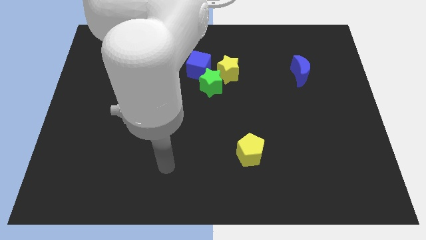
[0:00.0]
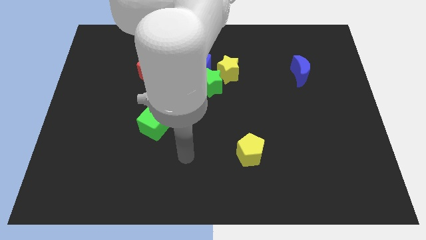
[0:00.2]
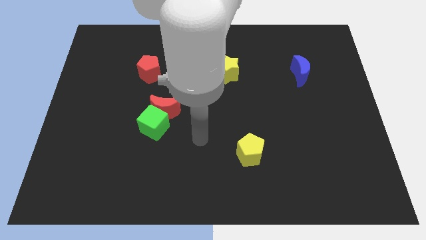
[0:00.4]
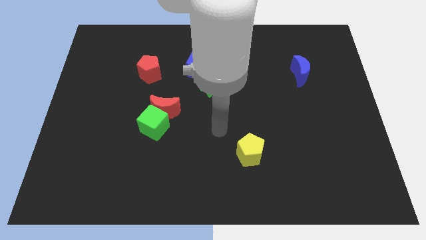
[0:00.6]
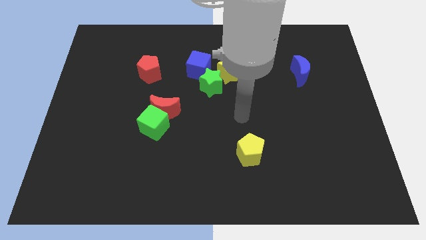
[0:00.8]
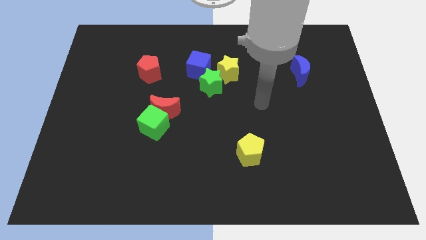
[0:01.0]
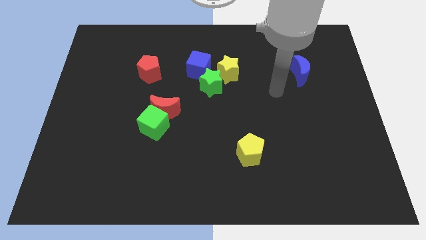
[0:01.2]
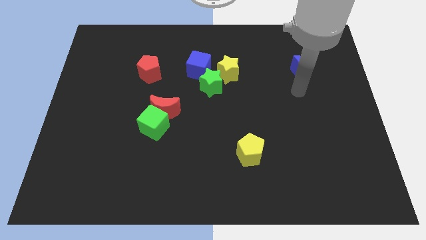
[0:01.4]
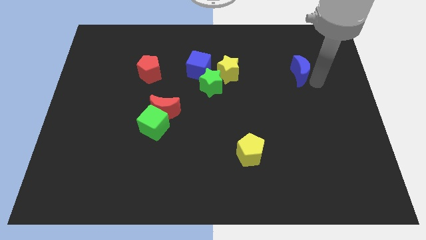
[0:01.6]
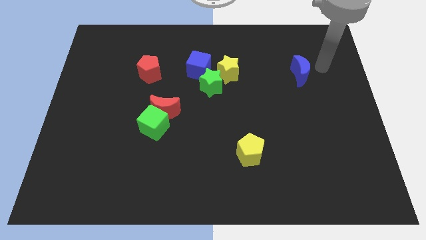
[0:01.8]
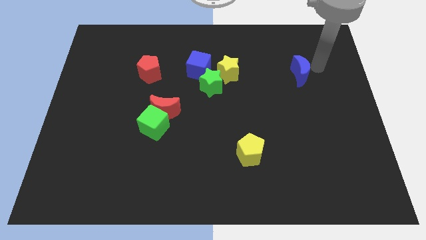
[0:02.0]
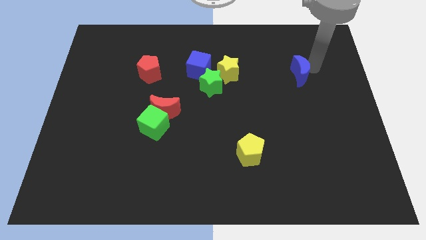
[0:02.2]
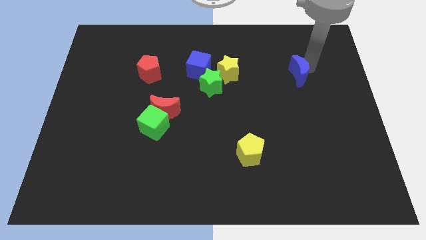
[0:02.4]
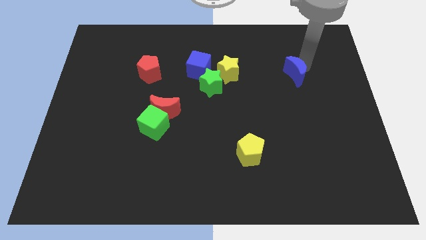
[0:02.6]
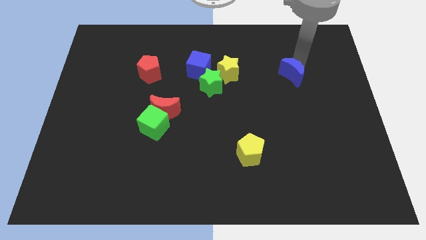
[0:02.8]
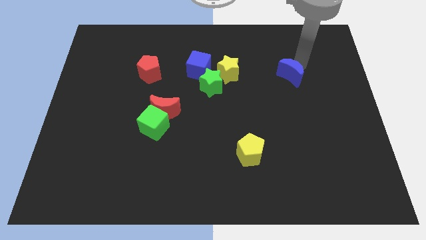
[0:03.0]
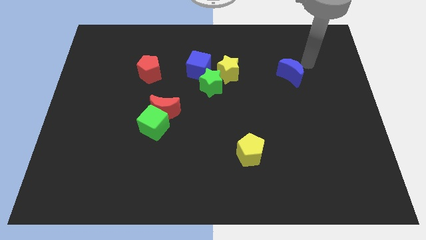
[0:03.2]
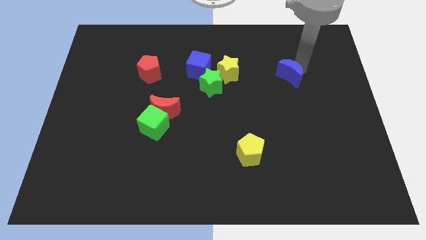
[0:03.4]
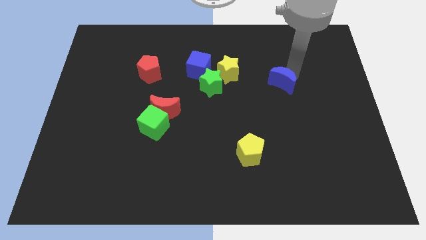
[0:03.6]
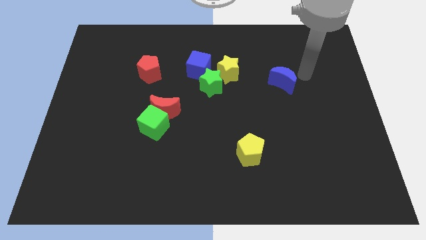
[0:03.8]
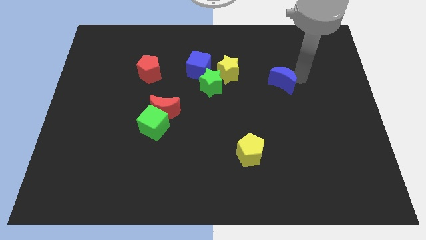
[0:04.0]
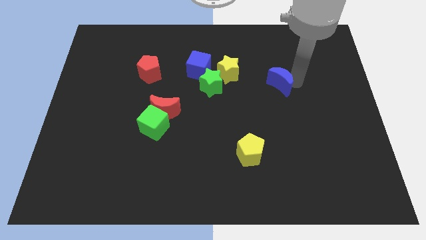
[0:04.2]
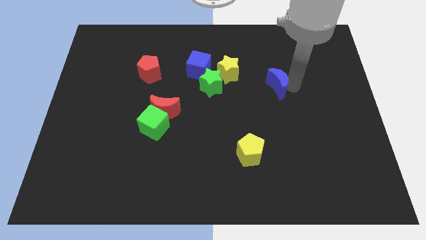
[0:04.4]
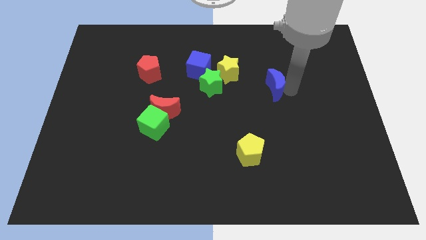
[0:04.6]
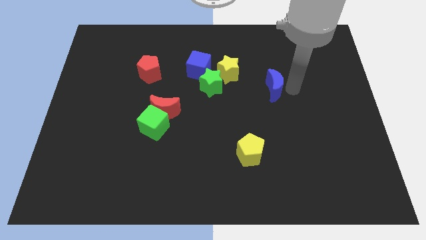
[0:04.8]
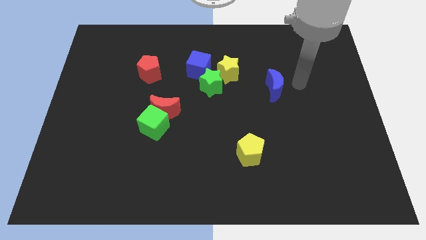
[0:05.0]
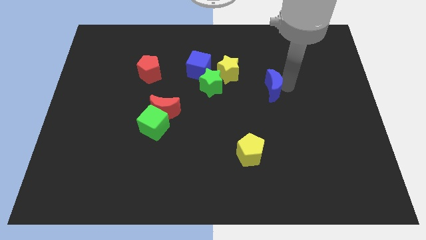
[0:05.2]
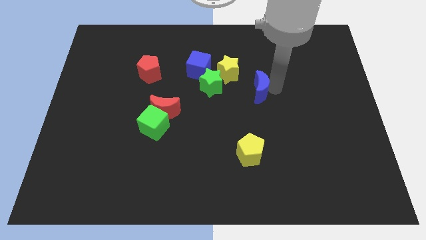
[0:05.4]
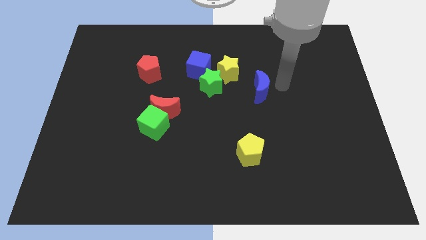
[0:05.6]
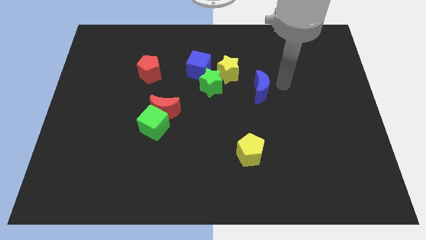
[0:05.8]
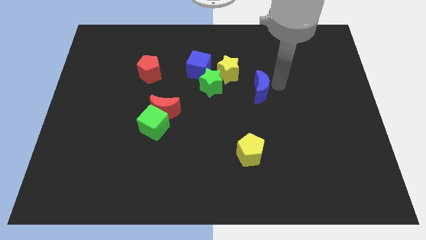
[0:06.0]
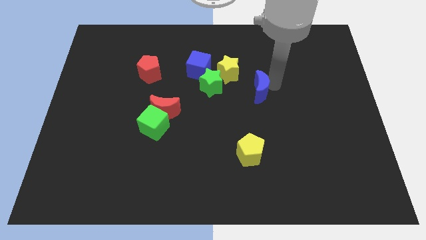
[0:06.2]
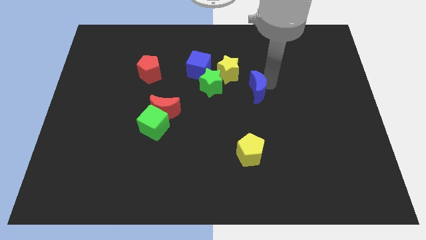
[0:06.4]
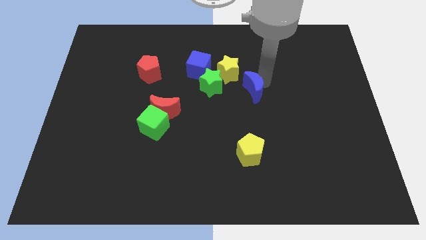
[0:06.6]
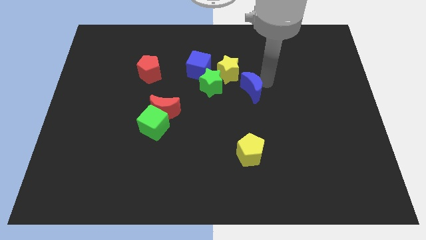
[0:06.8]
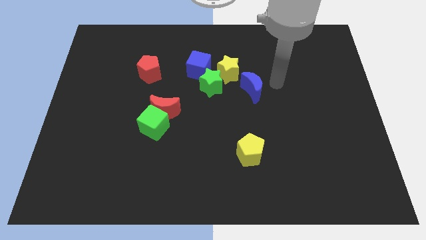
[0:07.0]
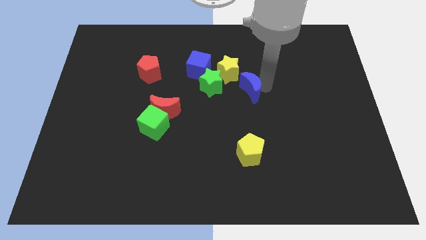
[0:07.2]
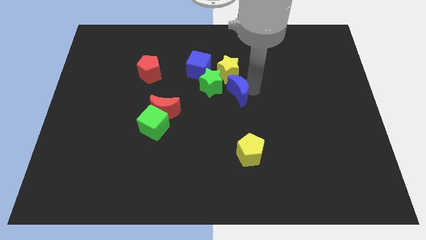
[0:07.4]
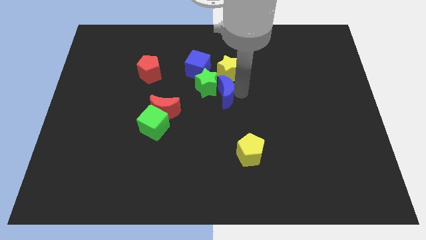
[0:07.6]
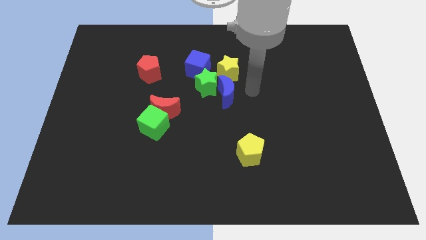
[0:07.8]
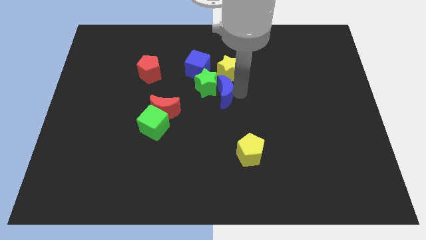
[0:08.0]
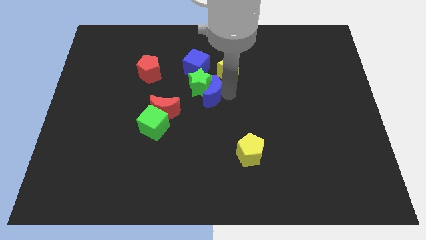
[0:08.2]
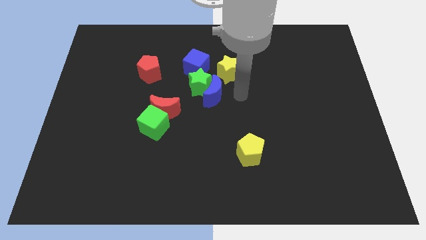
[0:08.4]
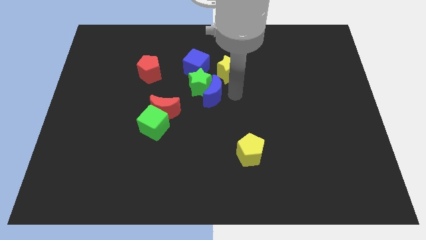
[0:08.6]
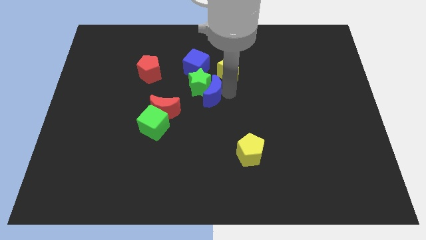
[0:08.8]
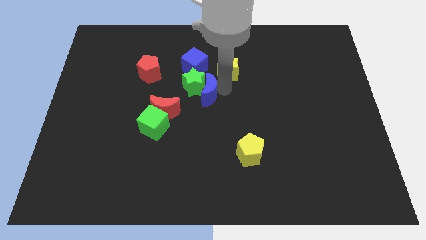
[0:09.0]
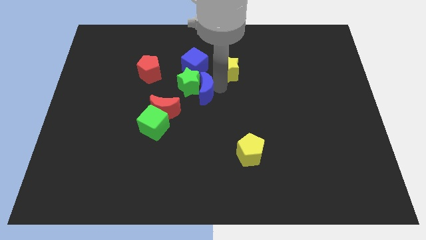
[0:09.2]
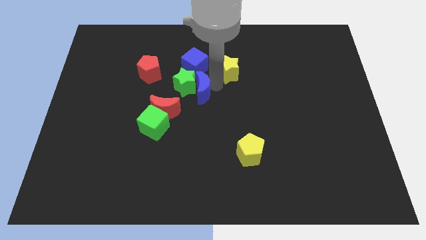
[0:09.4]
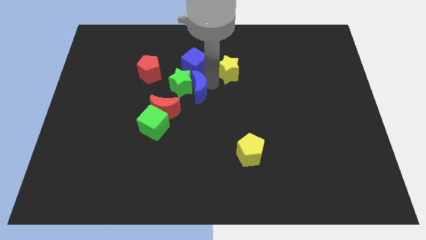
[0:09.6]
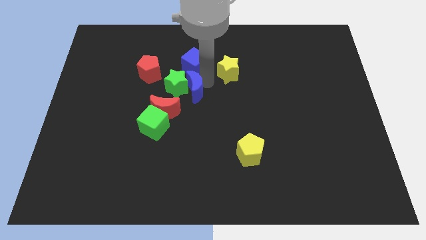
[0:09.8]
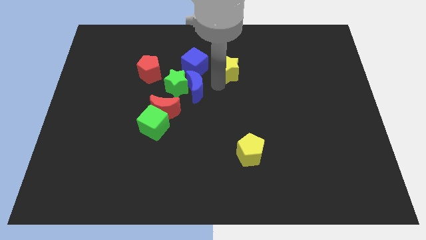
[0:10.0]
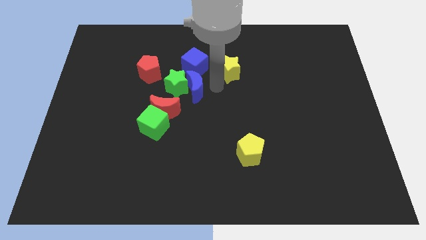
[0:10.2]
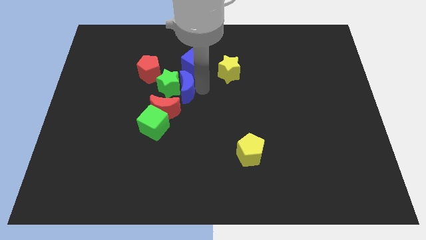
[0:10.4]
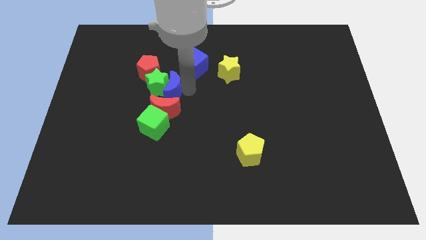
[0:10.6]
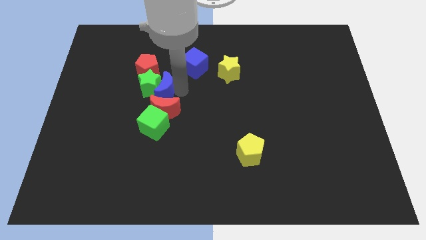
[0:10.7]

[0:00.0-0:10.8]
slide the blue moon diagonally up and to the left of the red moon
